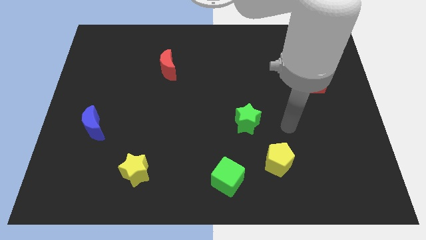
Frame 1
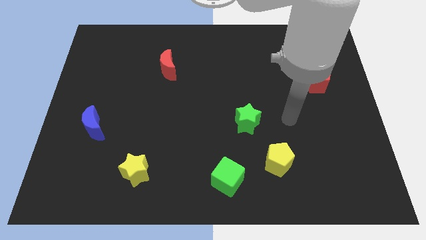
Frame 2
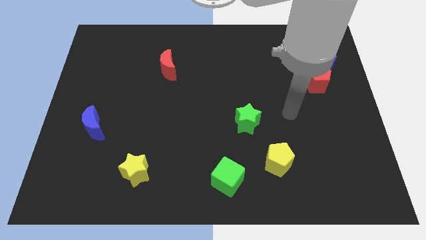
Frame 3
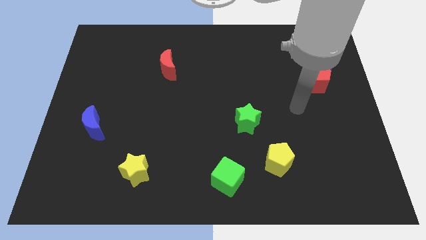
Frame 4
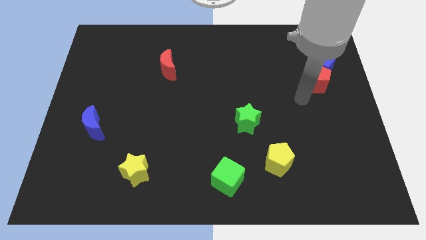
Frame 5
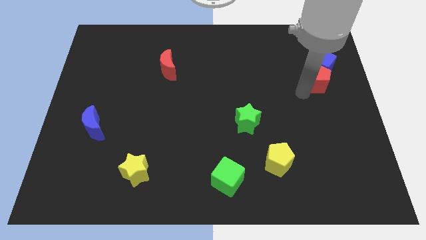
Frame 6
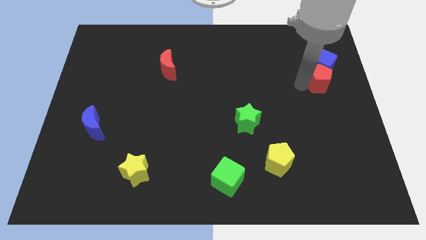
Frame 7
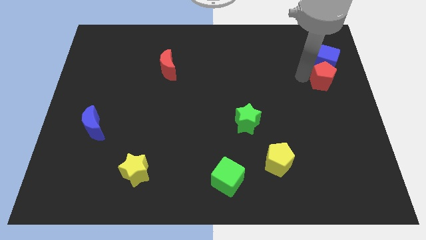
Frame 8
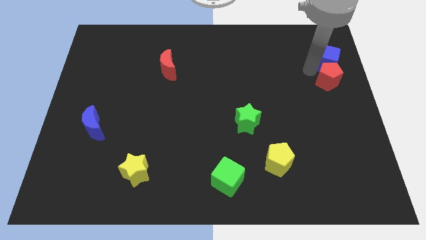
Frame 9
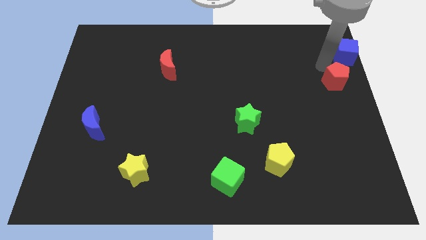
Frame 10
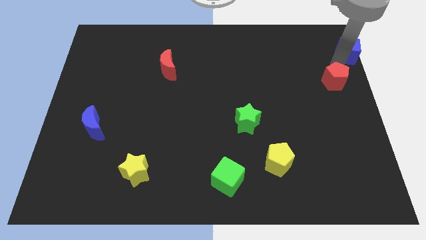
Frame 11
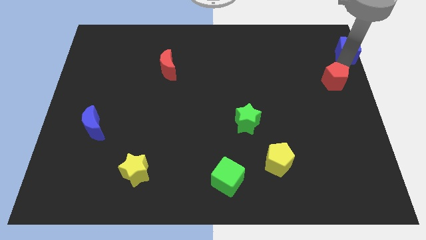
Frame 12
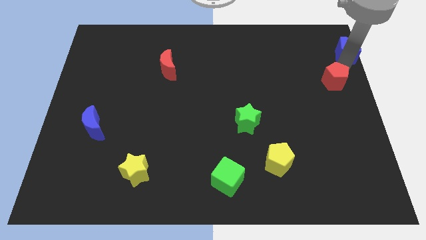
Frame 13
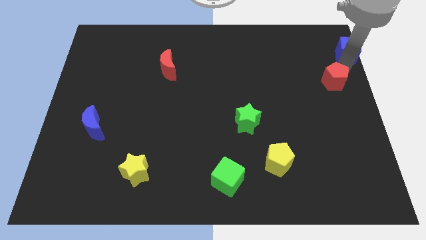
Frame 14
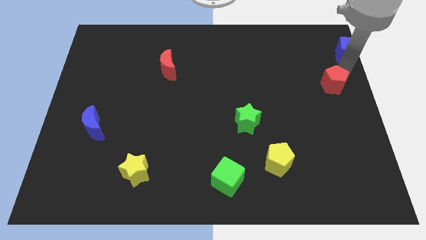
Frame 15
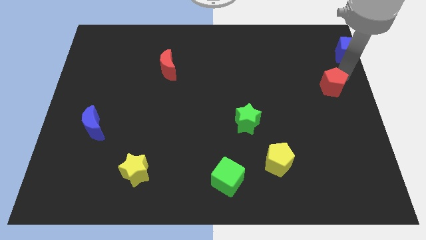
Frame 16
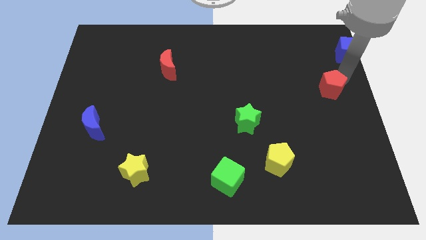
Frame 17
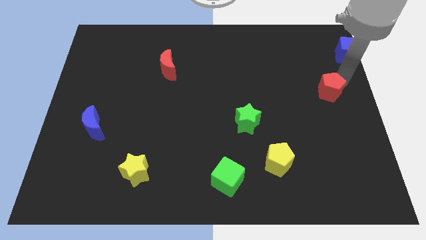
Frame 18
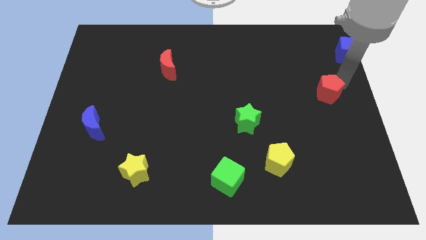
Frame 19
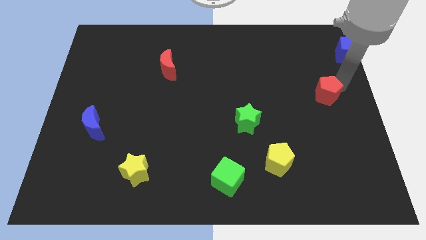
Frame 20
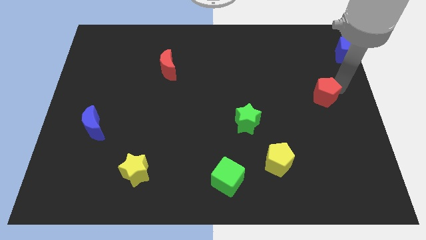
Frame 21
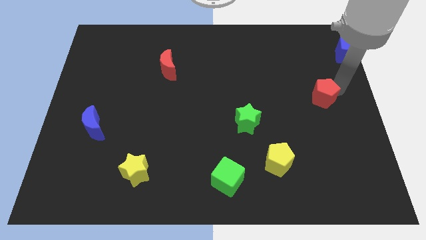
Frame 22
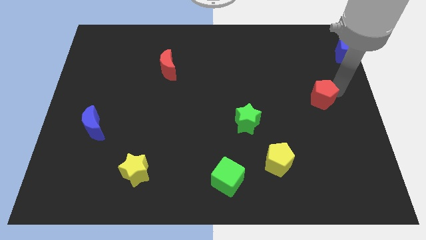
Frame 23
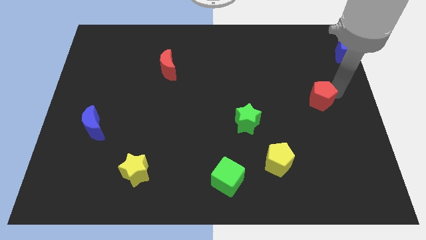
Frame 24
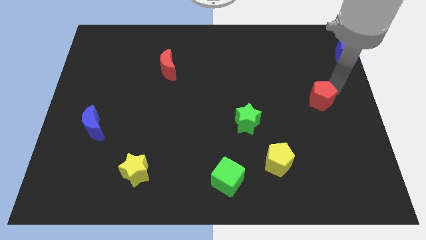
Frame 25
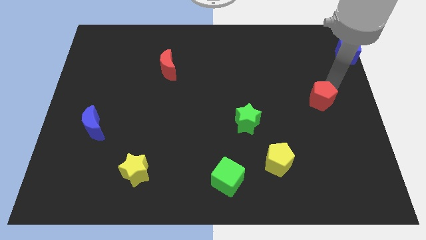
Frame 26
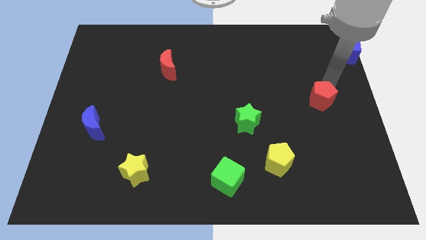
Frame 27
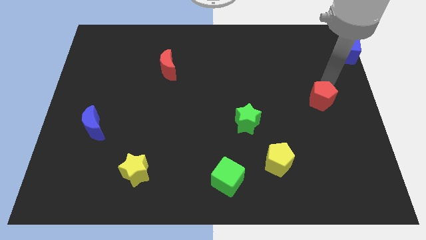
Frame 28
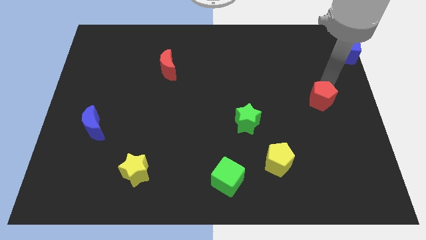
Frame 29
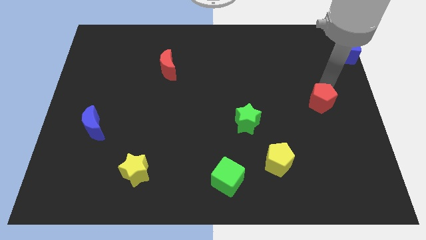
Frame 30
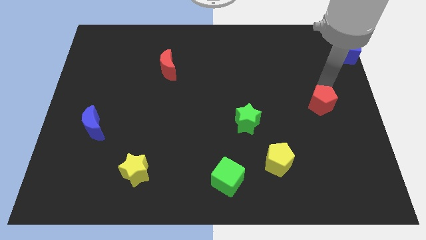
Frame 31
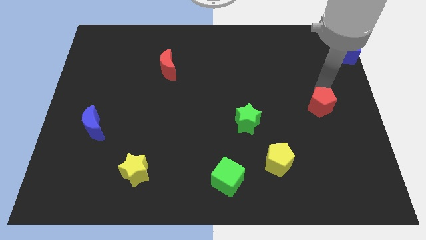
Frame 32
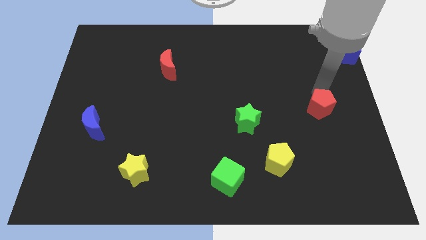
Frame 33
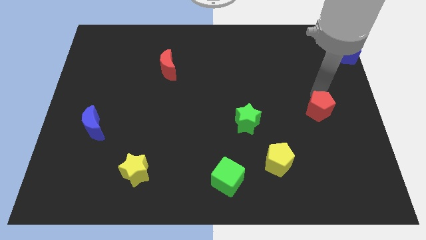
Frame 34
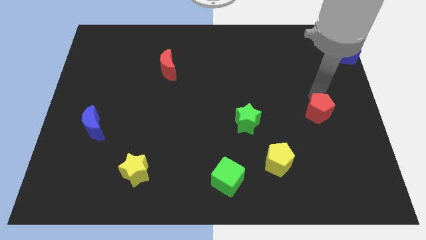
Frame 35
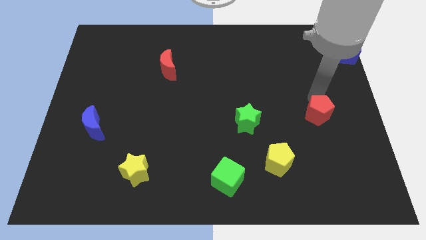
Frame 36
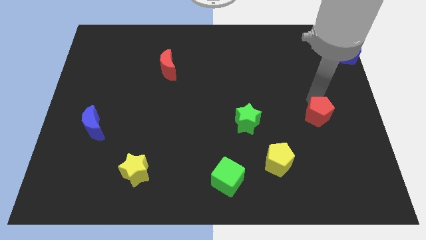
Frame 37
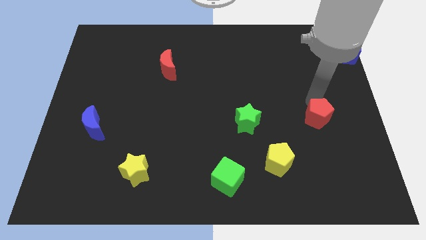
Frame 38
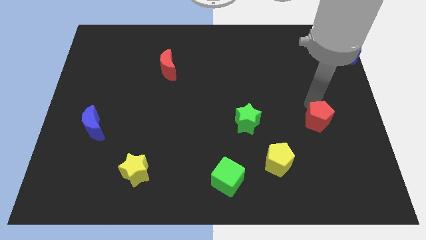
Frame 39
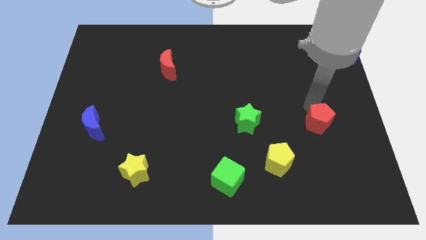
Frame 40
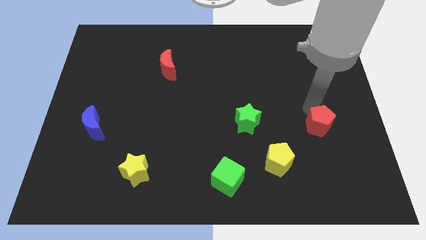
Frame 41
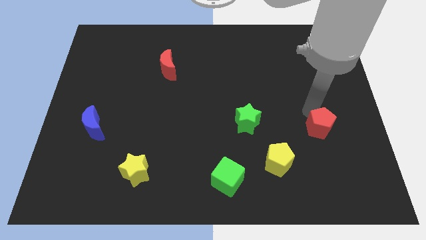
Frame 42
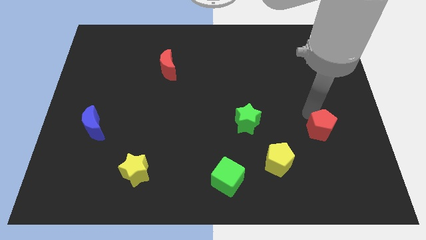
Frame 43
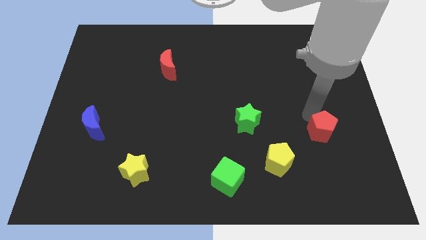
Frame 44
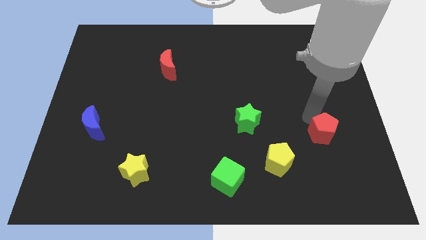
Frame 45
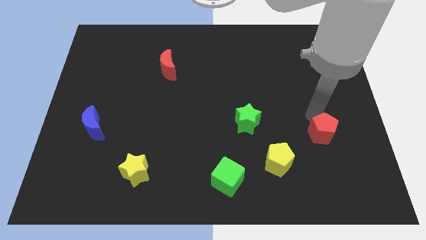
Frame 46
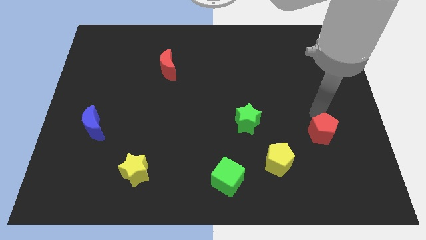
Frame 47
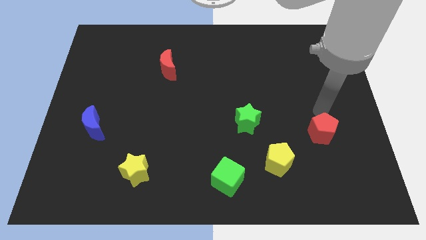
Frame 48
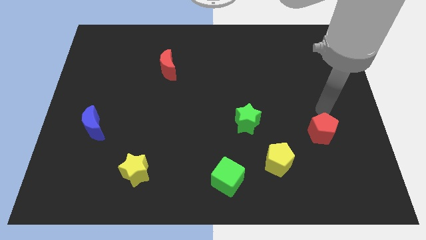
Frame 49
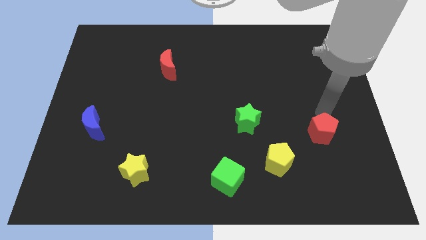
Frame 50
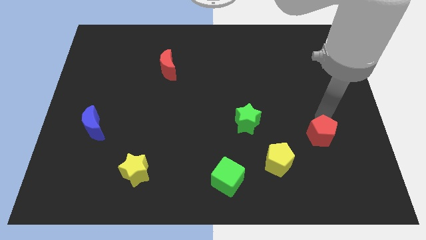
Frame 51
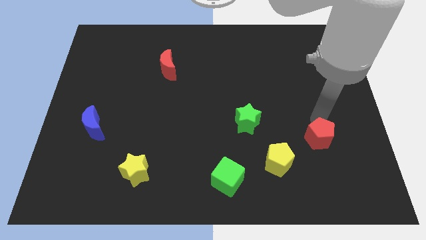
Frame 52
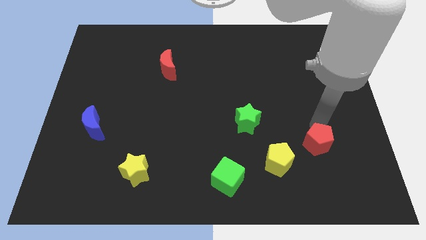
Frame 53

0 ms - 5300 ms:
slide the red pentagon to the right of the yellow pentagon

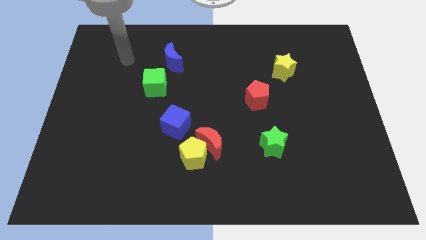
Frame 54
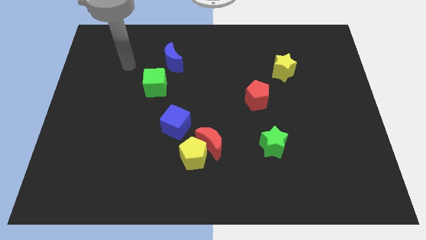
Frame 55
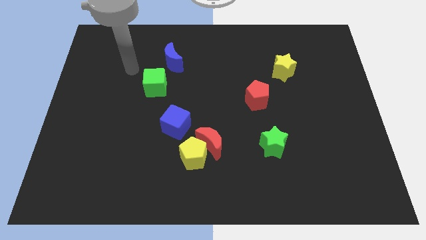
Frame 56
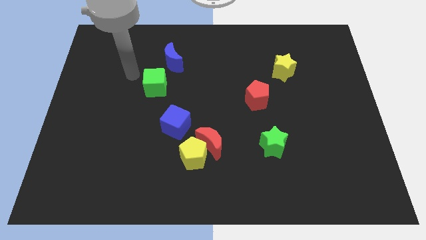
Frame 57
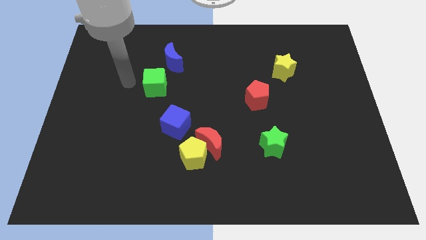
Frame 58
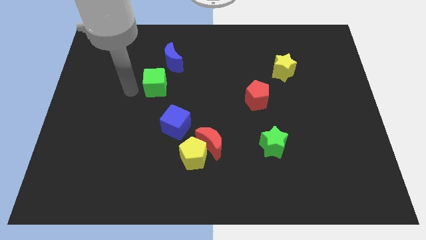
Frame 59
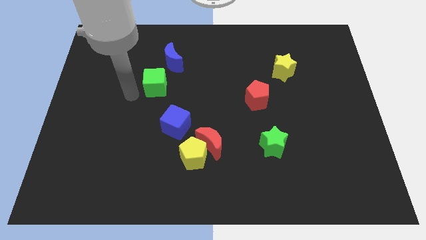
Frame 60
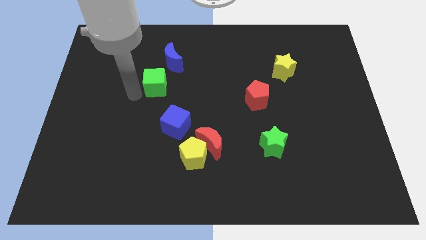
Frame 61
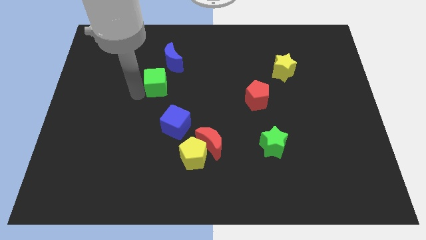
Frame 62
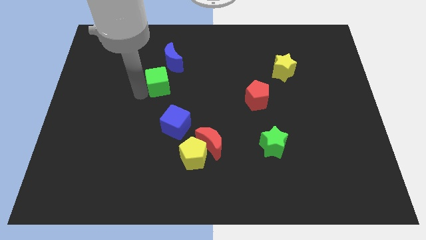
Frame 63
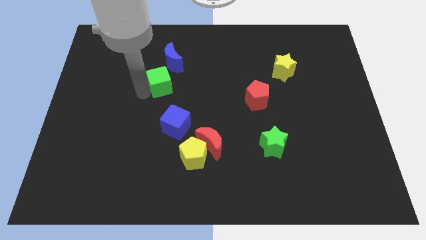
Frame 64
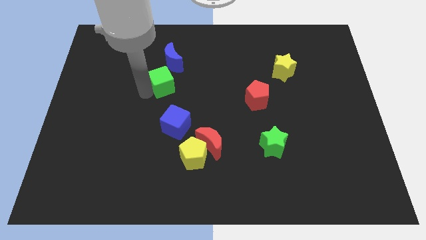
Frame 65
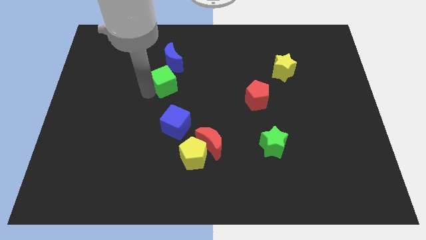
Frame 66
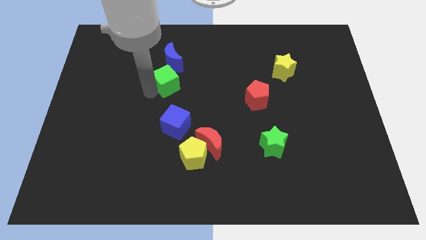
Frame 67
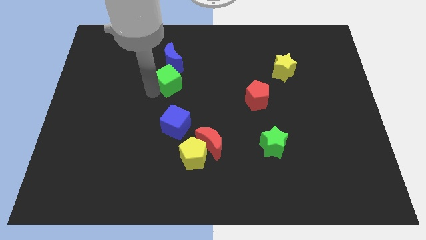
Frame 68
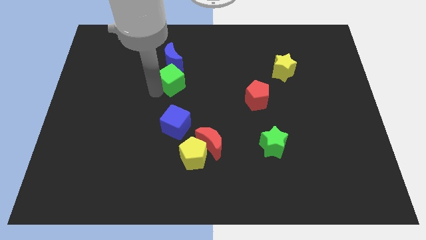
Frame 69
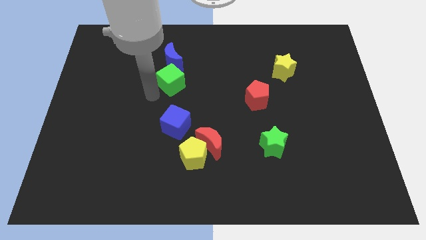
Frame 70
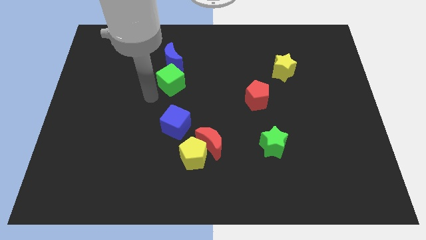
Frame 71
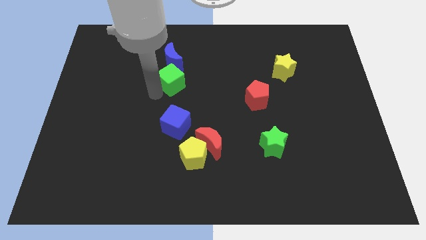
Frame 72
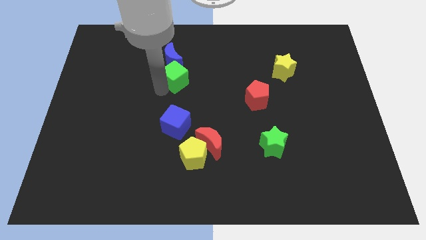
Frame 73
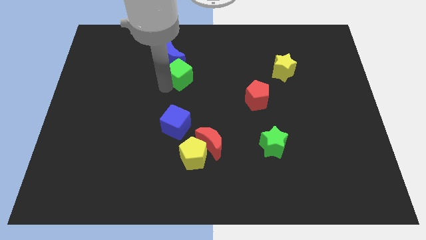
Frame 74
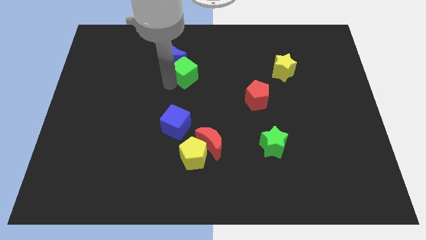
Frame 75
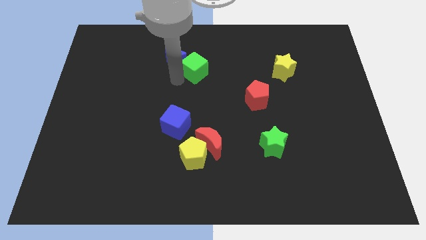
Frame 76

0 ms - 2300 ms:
move the green cube to the right of the blue moon
